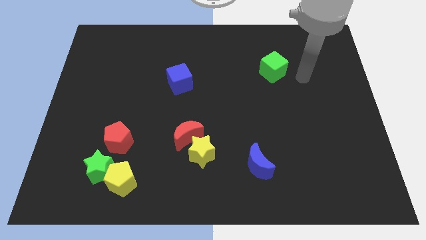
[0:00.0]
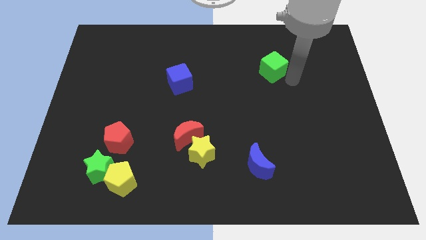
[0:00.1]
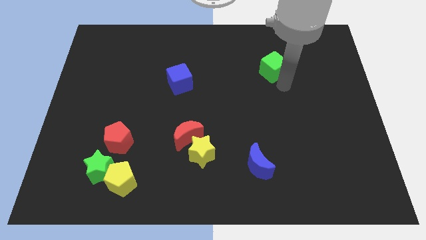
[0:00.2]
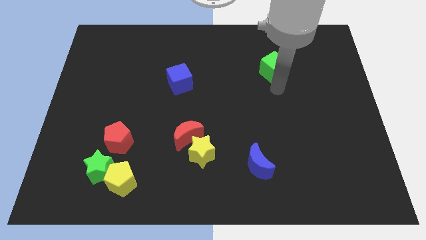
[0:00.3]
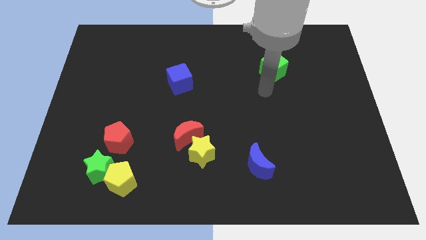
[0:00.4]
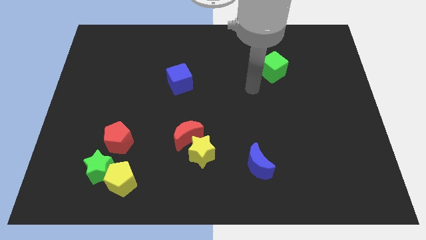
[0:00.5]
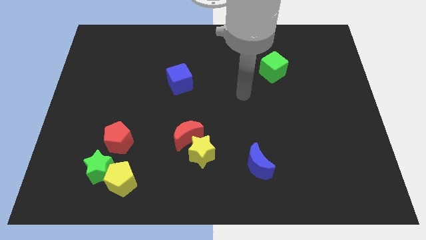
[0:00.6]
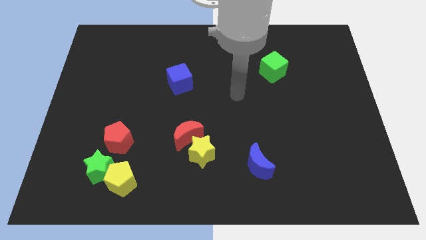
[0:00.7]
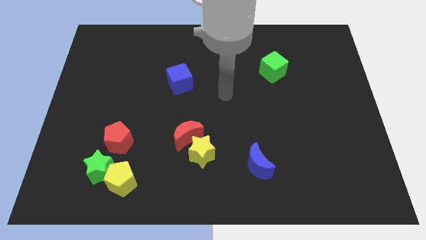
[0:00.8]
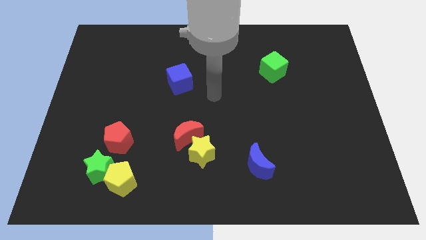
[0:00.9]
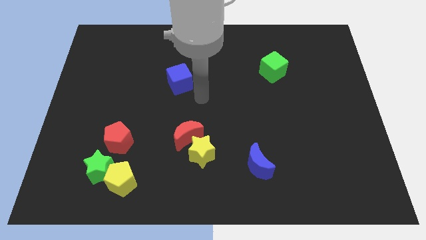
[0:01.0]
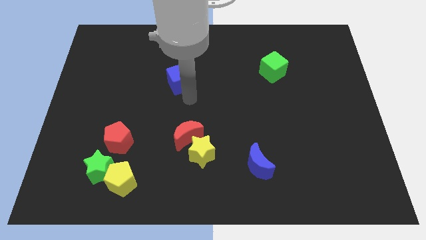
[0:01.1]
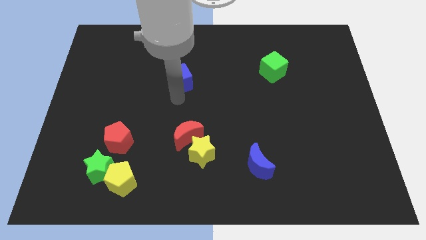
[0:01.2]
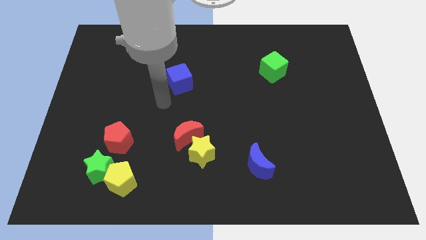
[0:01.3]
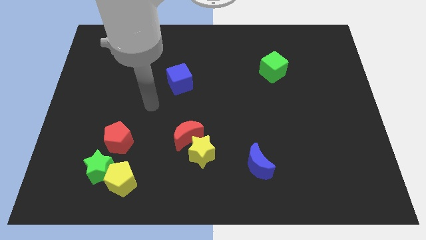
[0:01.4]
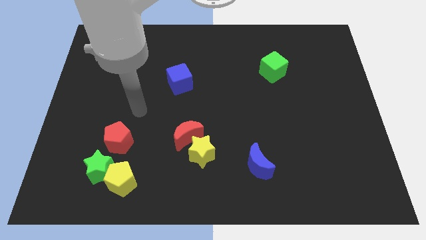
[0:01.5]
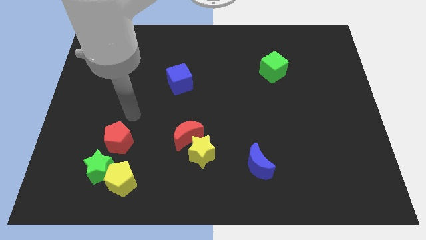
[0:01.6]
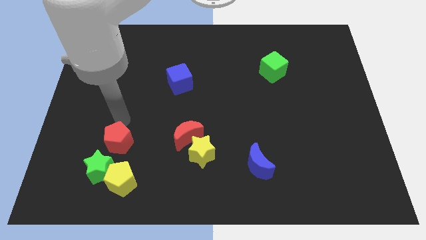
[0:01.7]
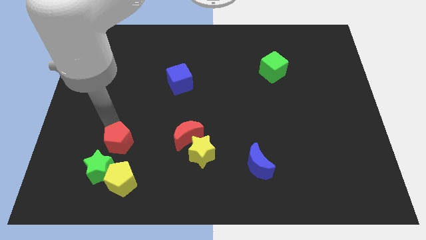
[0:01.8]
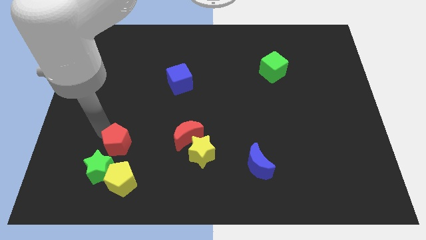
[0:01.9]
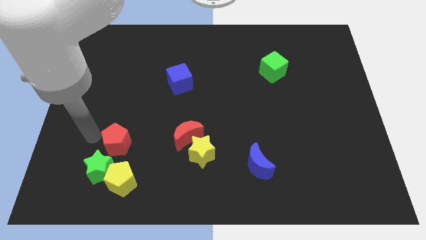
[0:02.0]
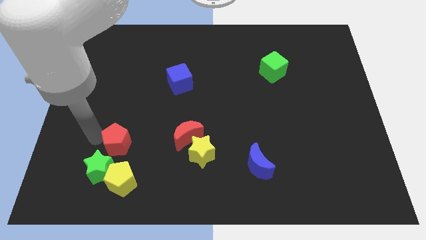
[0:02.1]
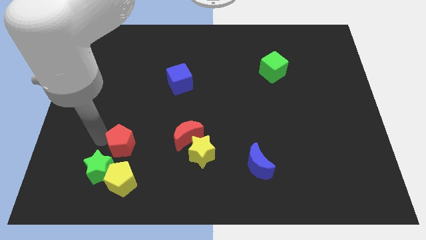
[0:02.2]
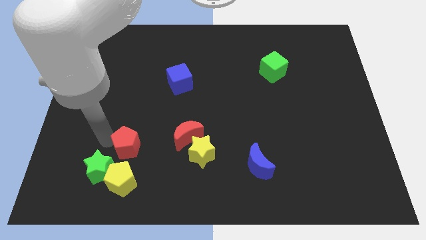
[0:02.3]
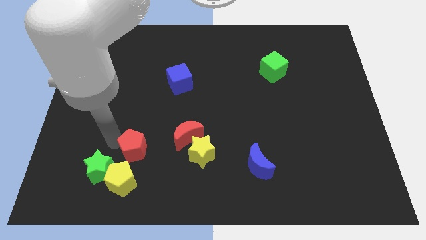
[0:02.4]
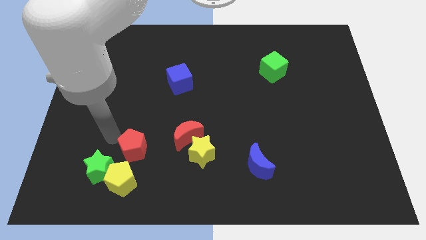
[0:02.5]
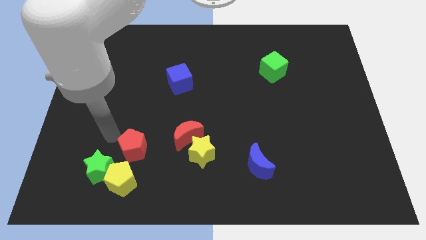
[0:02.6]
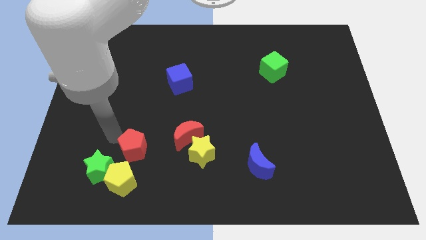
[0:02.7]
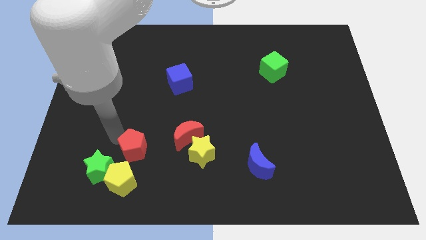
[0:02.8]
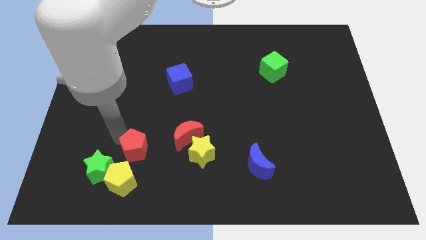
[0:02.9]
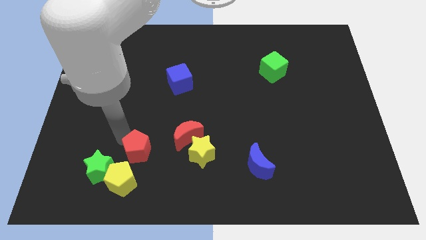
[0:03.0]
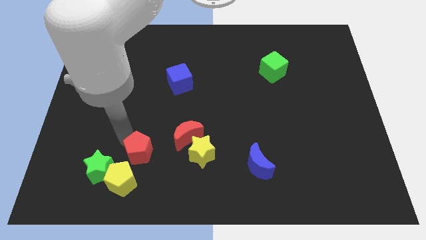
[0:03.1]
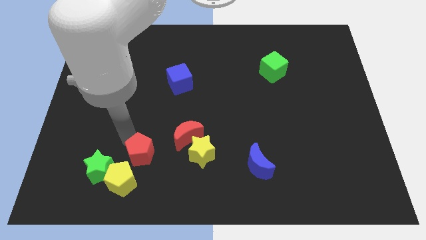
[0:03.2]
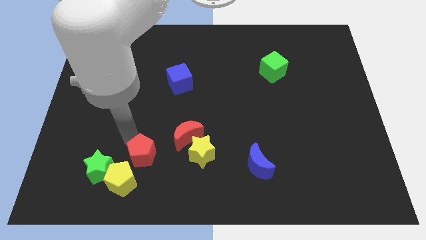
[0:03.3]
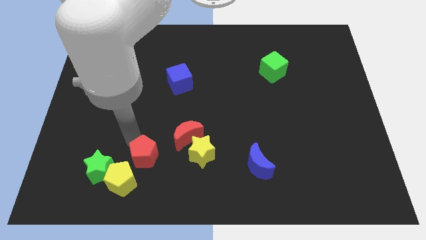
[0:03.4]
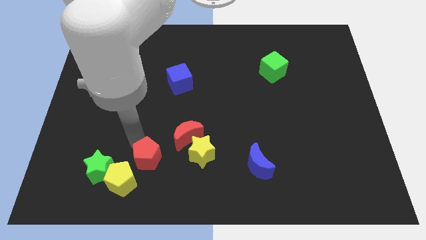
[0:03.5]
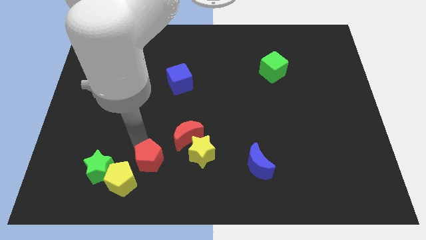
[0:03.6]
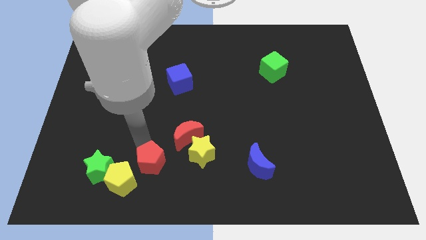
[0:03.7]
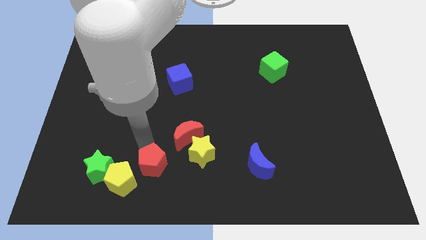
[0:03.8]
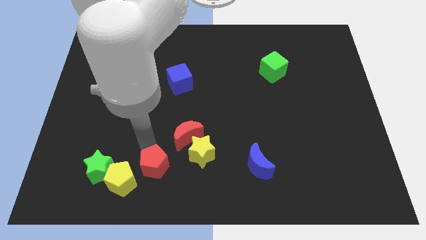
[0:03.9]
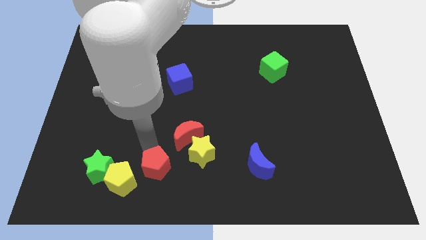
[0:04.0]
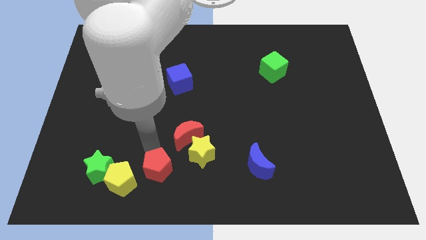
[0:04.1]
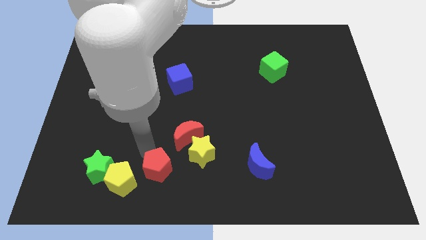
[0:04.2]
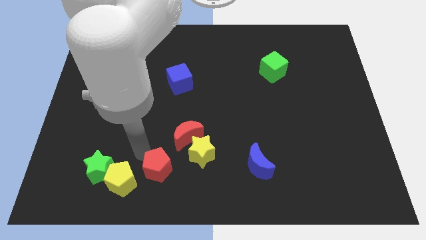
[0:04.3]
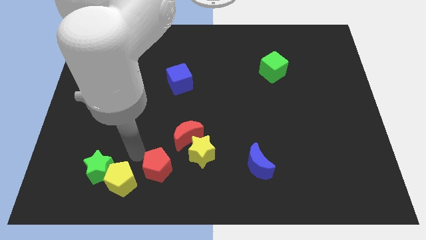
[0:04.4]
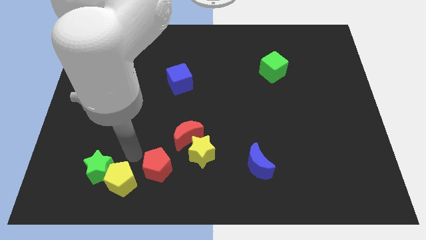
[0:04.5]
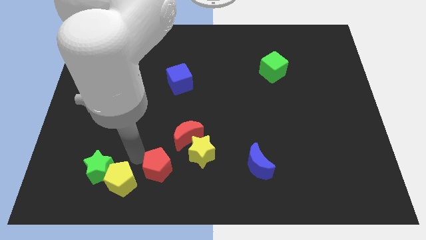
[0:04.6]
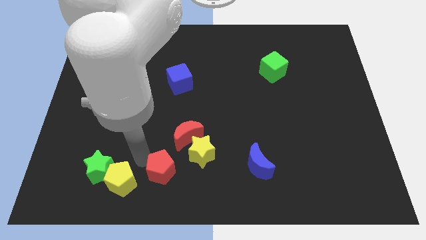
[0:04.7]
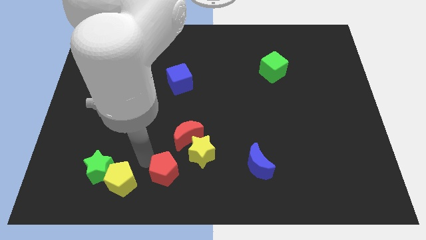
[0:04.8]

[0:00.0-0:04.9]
slide the red pentagon to the bottom

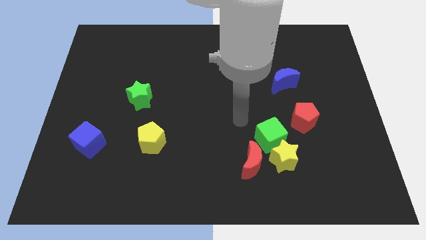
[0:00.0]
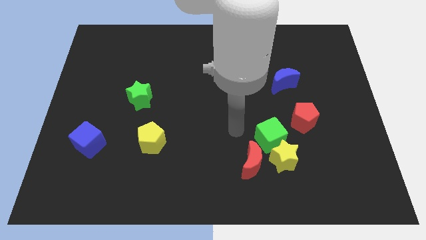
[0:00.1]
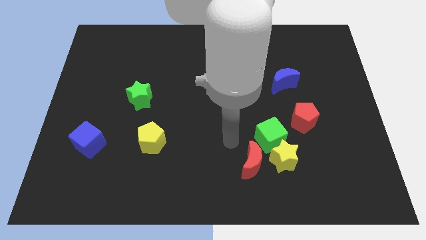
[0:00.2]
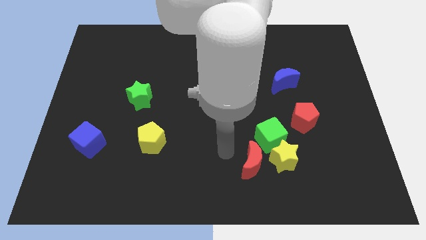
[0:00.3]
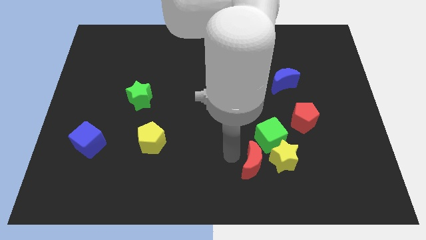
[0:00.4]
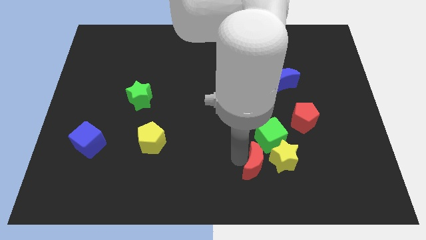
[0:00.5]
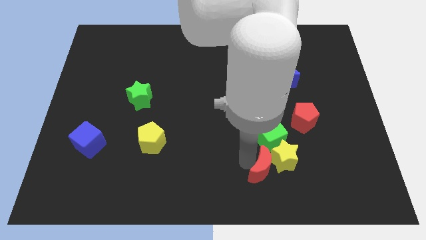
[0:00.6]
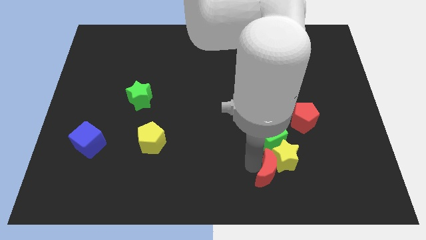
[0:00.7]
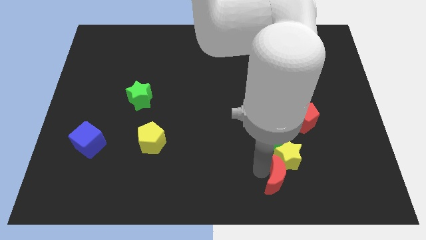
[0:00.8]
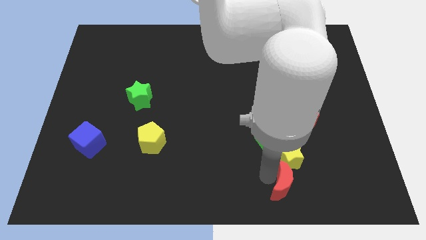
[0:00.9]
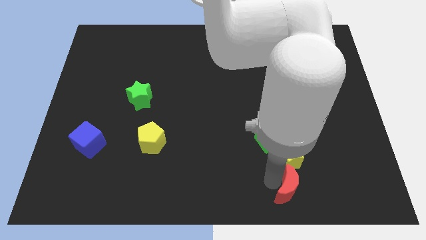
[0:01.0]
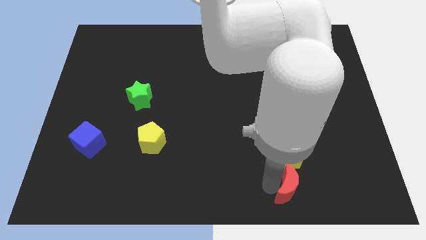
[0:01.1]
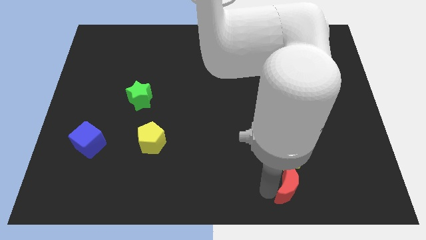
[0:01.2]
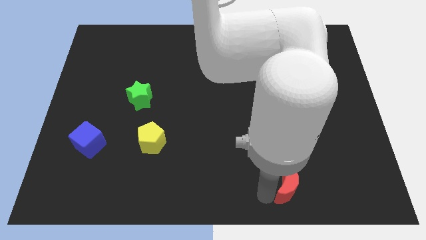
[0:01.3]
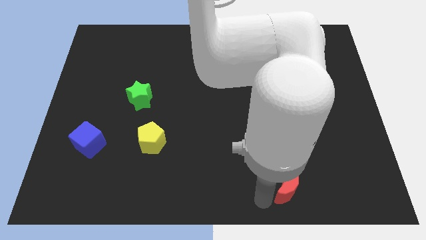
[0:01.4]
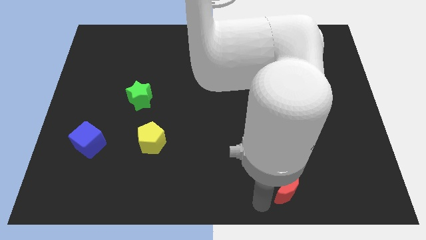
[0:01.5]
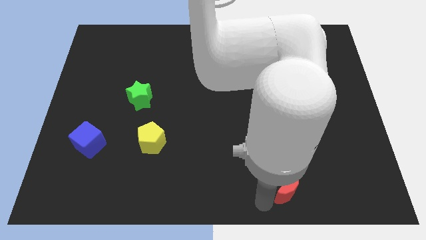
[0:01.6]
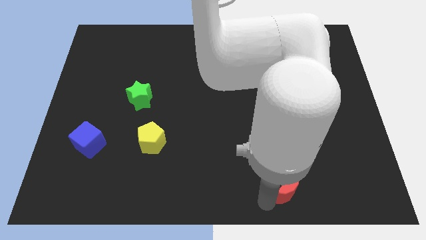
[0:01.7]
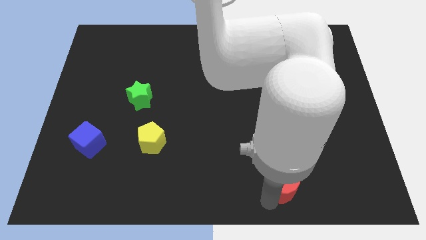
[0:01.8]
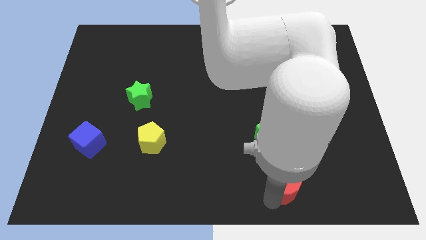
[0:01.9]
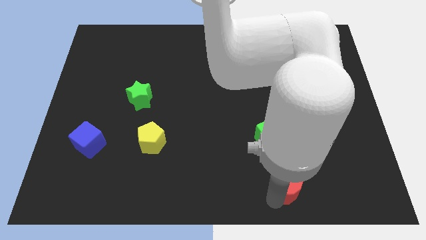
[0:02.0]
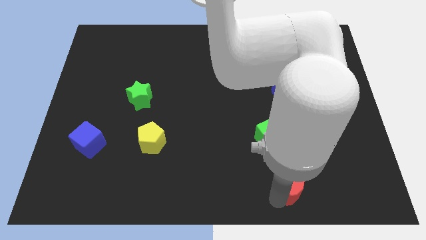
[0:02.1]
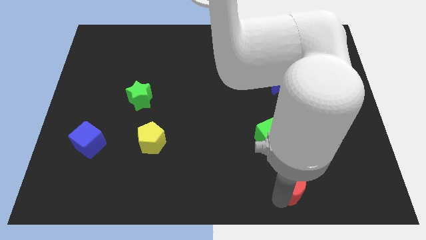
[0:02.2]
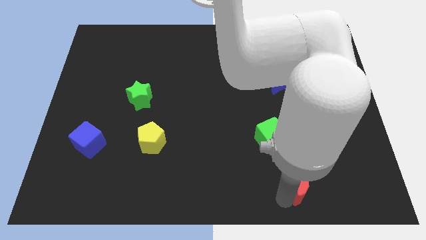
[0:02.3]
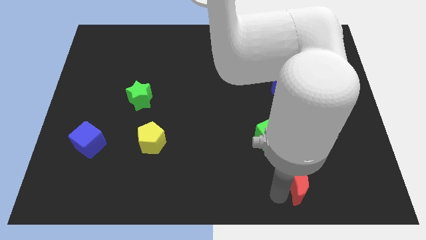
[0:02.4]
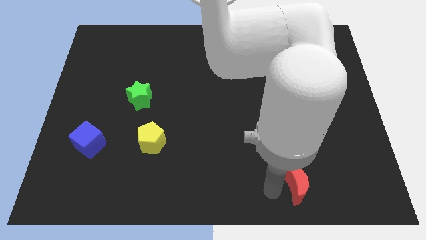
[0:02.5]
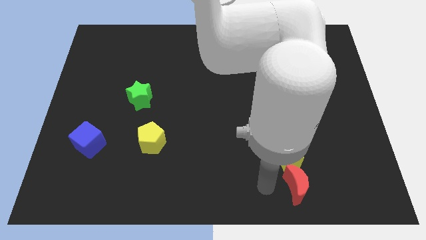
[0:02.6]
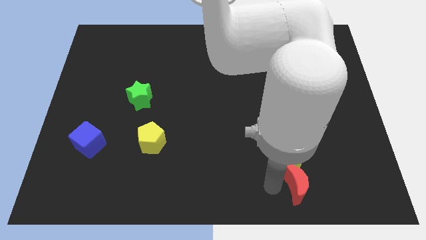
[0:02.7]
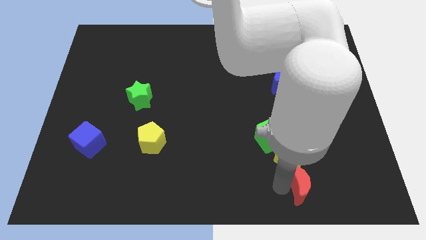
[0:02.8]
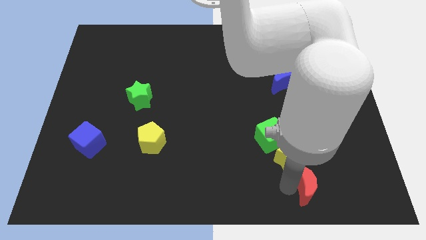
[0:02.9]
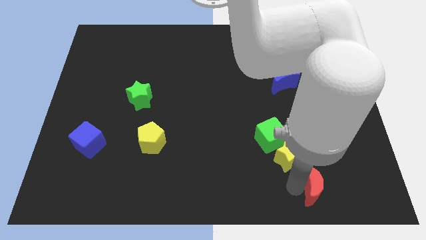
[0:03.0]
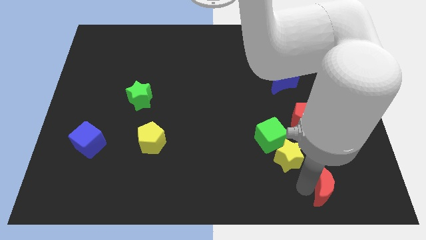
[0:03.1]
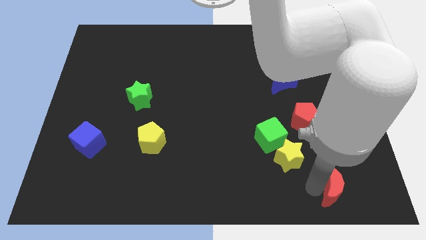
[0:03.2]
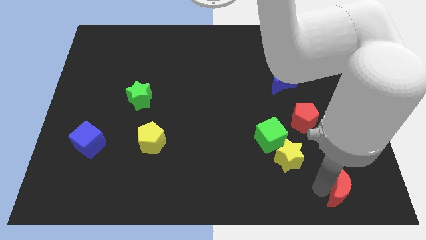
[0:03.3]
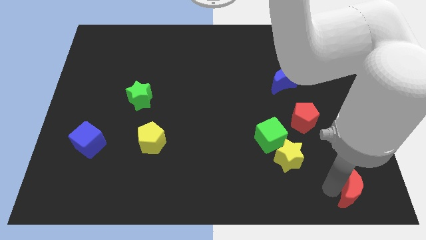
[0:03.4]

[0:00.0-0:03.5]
slide the red moon to the bottom right corner
